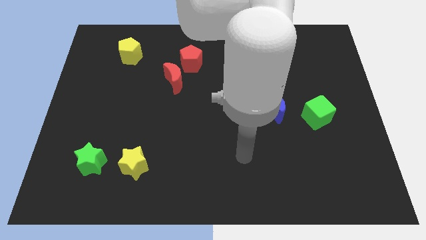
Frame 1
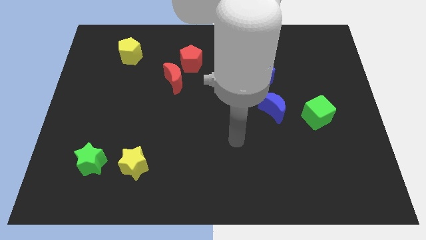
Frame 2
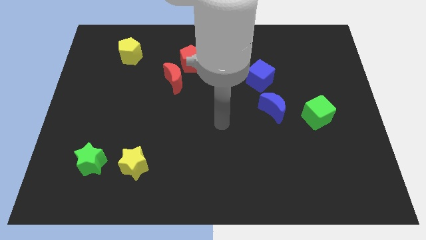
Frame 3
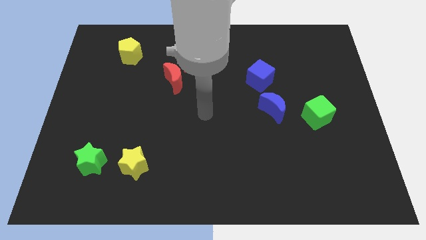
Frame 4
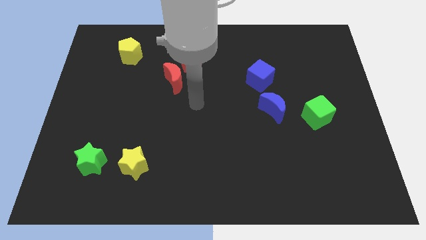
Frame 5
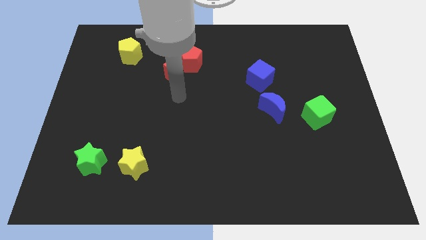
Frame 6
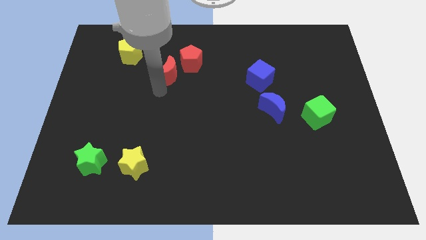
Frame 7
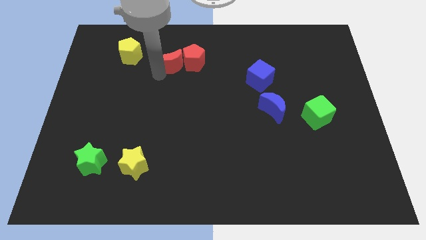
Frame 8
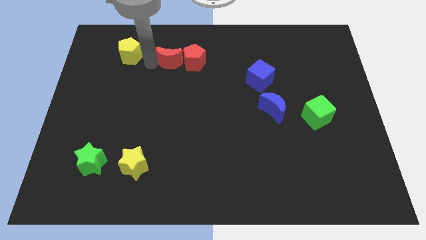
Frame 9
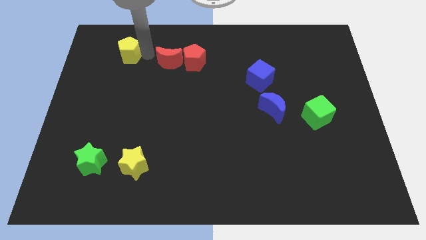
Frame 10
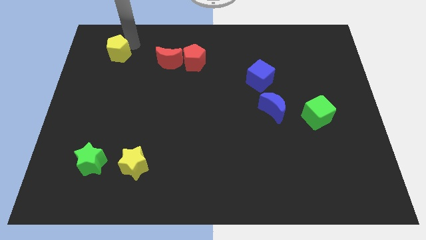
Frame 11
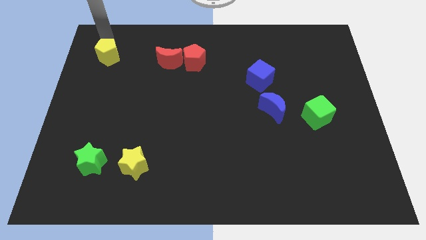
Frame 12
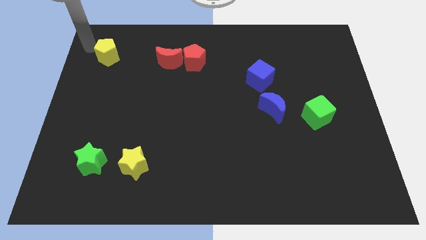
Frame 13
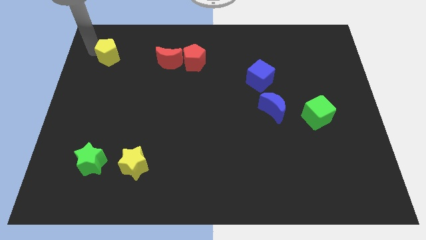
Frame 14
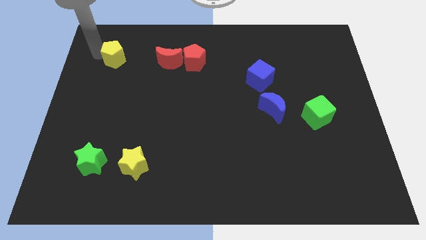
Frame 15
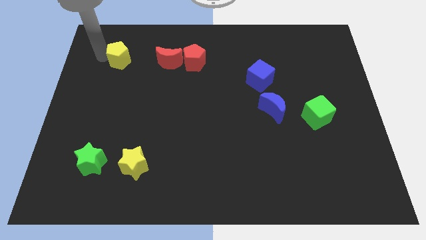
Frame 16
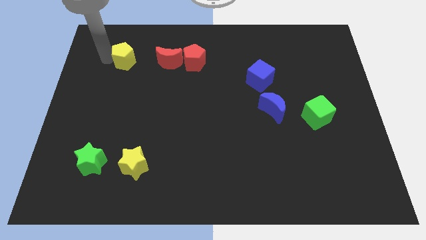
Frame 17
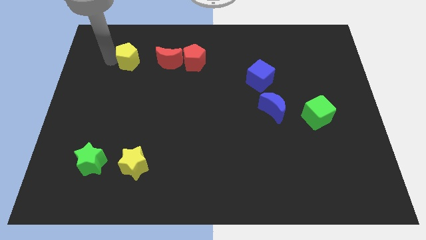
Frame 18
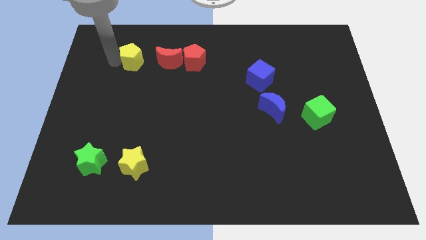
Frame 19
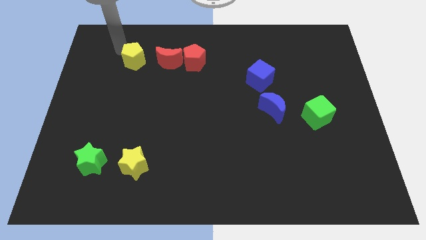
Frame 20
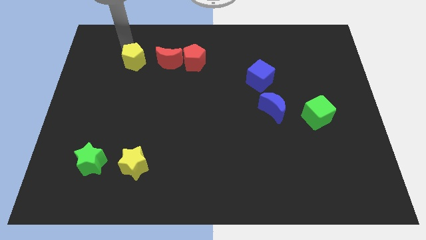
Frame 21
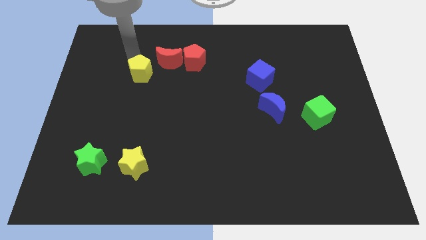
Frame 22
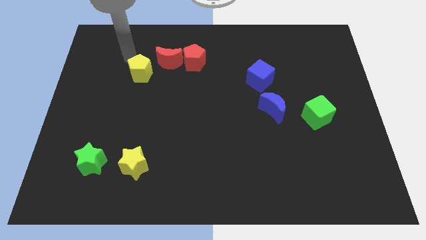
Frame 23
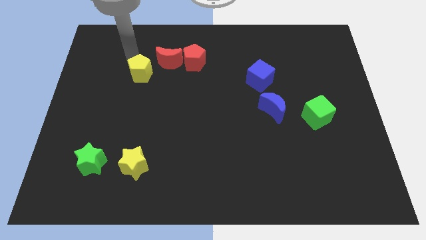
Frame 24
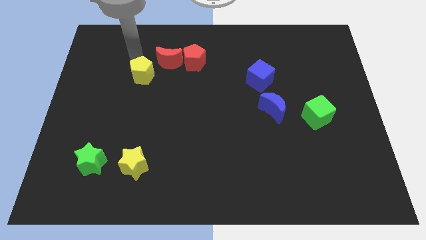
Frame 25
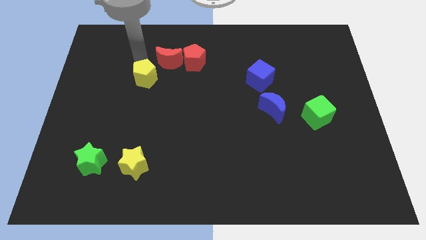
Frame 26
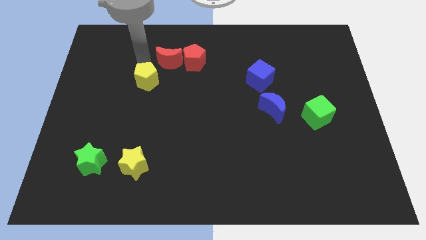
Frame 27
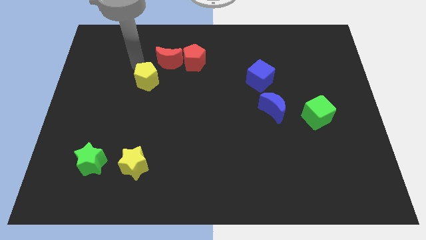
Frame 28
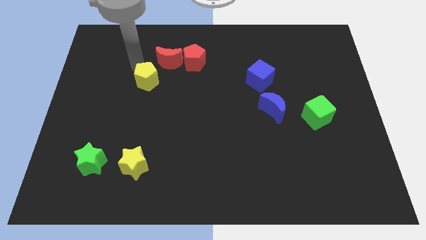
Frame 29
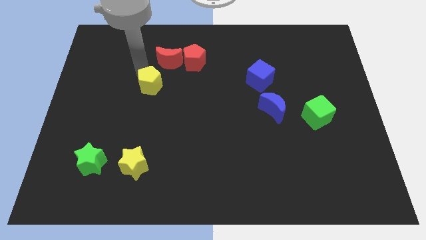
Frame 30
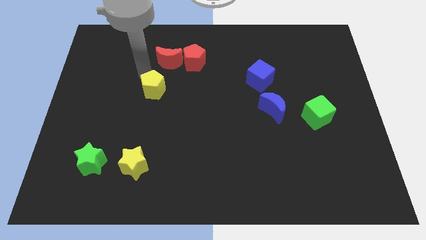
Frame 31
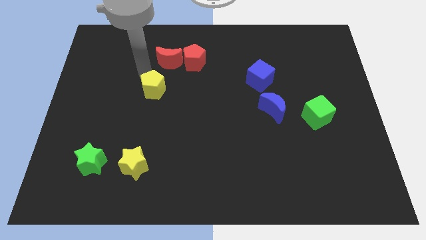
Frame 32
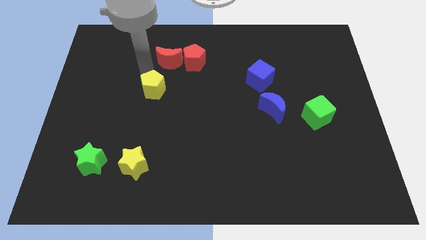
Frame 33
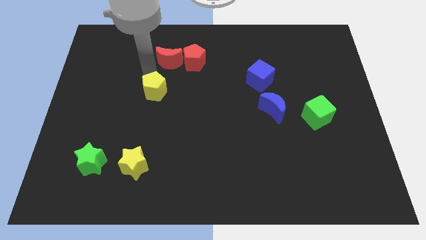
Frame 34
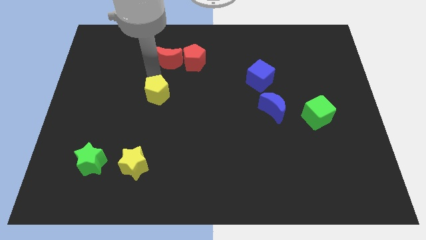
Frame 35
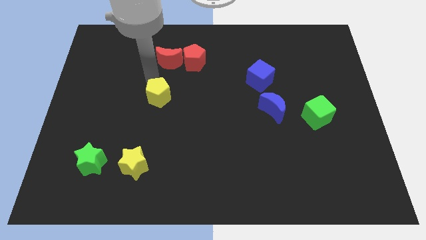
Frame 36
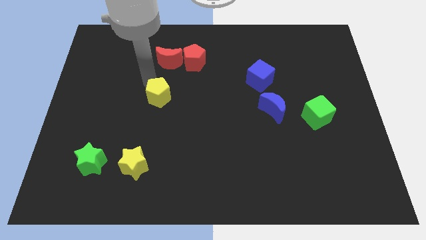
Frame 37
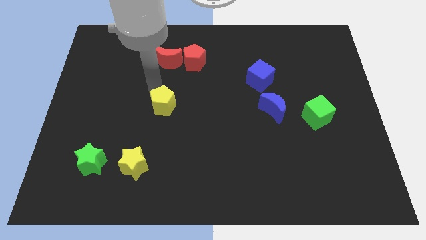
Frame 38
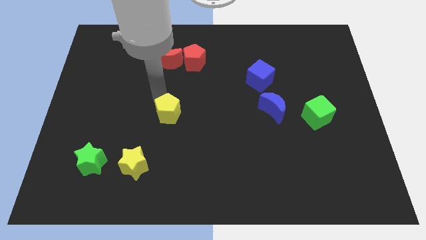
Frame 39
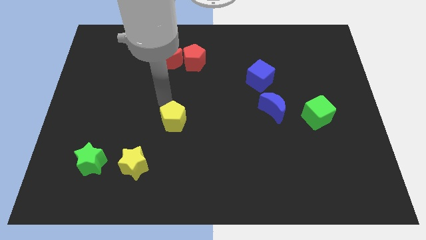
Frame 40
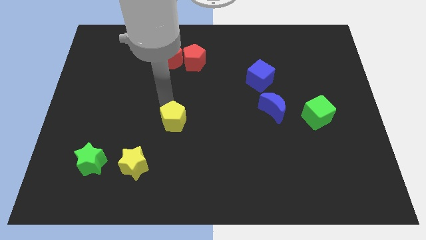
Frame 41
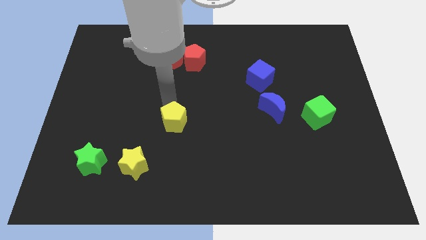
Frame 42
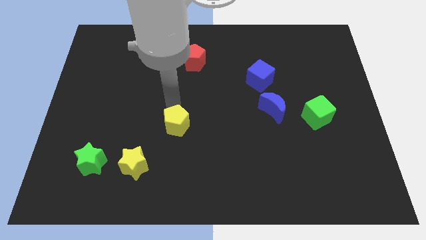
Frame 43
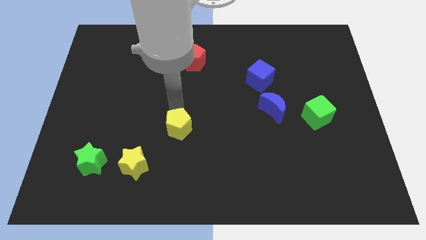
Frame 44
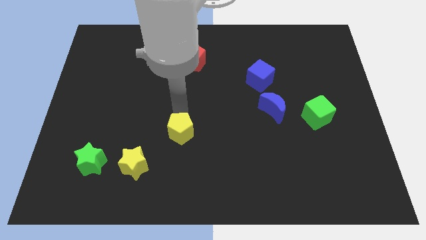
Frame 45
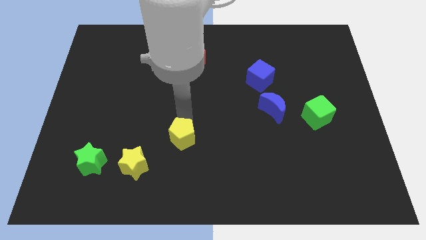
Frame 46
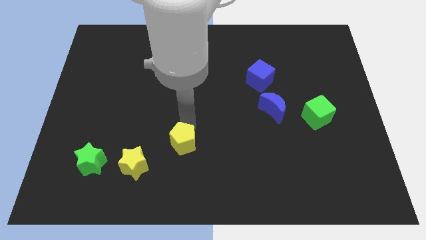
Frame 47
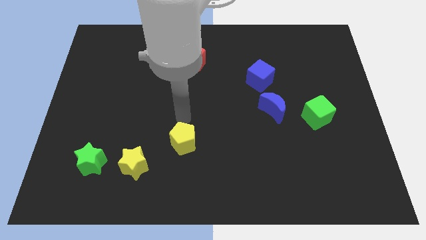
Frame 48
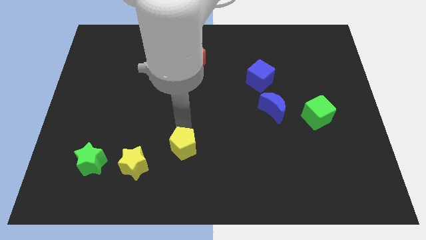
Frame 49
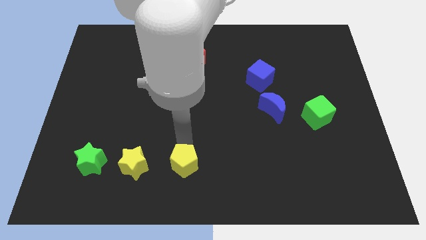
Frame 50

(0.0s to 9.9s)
move the yellow pentagon to the bottom side

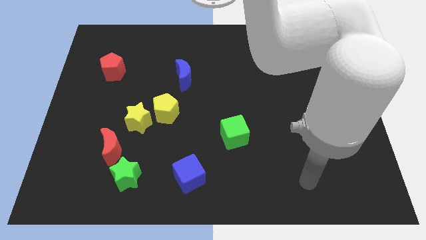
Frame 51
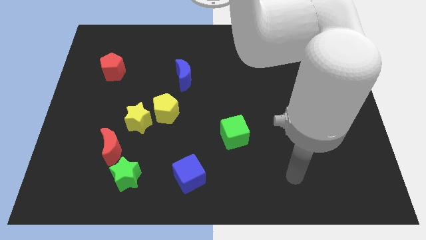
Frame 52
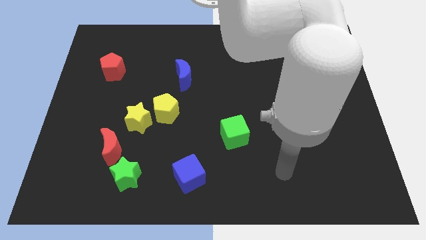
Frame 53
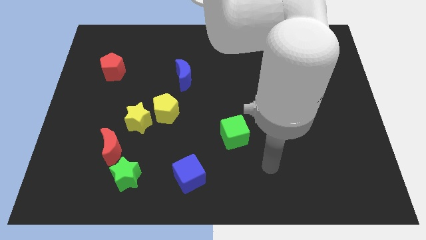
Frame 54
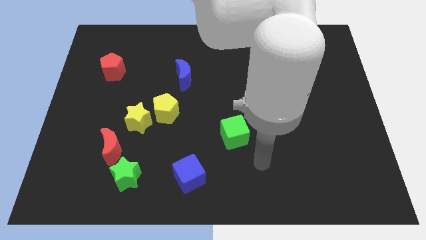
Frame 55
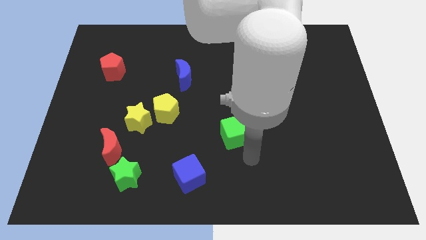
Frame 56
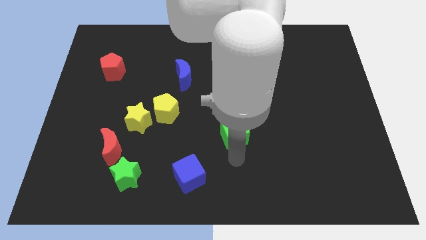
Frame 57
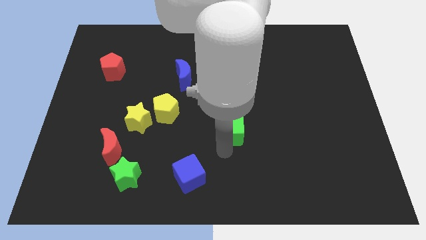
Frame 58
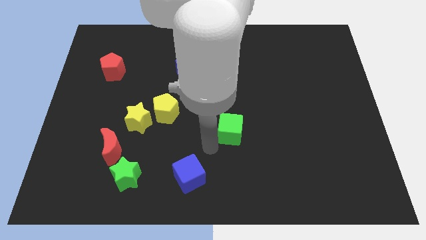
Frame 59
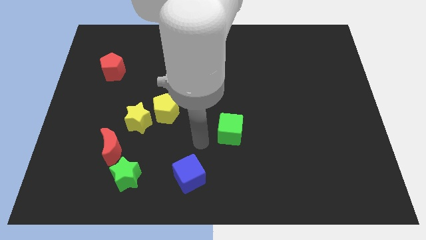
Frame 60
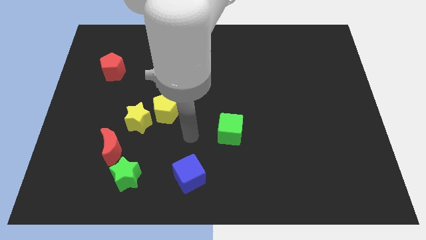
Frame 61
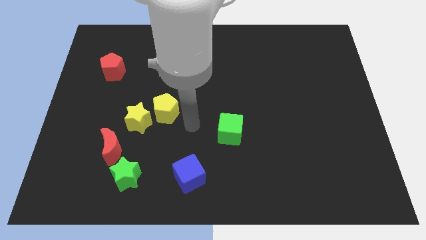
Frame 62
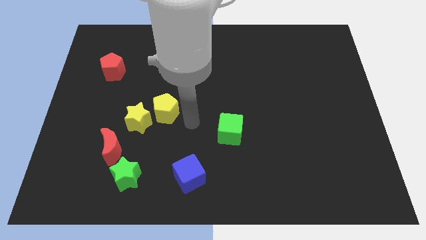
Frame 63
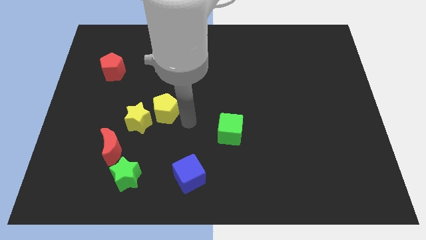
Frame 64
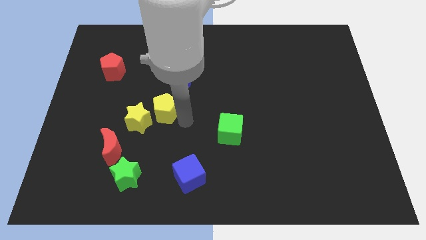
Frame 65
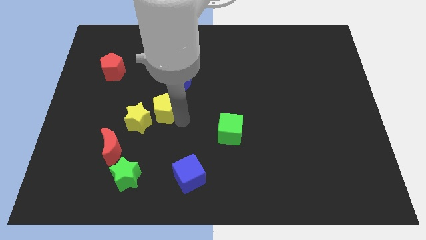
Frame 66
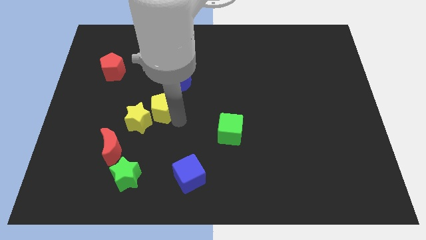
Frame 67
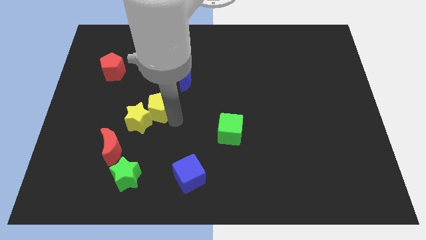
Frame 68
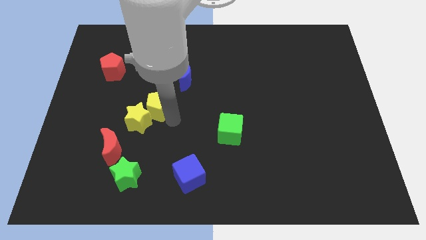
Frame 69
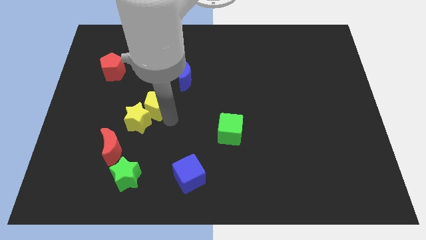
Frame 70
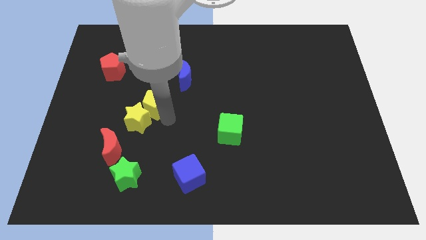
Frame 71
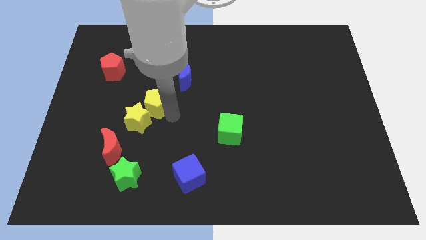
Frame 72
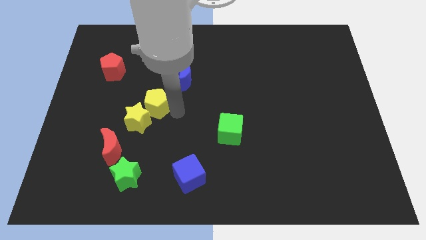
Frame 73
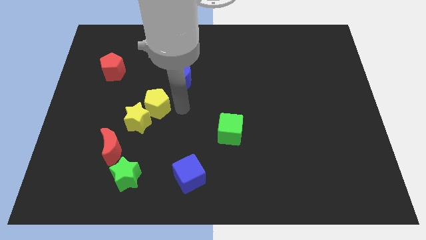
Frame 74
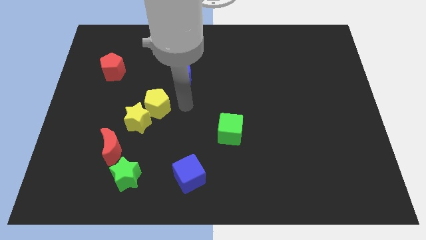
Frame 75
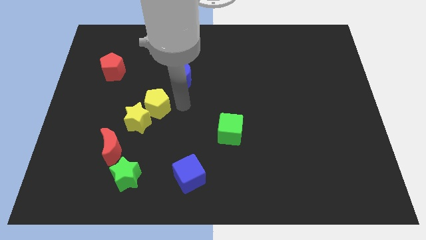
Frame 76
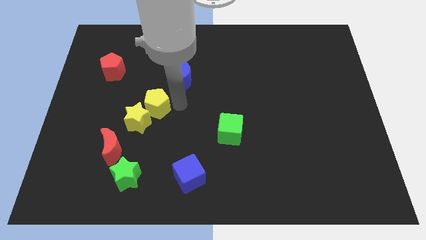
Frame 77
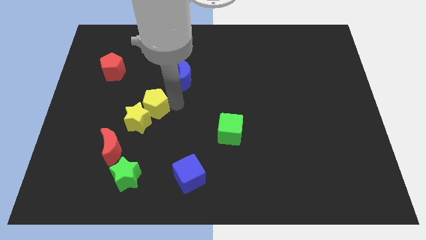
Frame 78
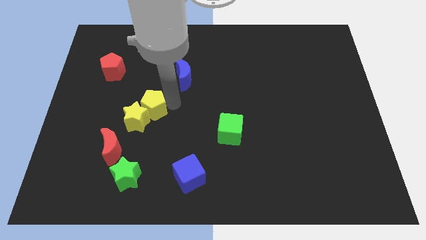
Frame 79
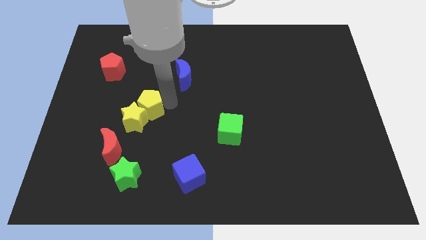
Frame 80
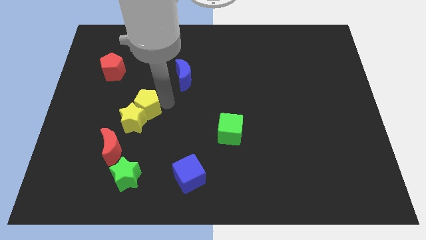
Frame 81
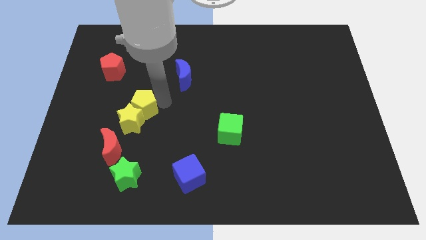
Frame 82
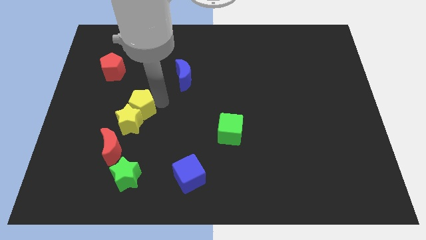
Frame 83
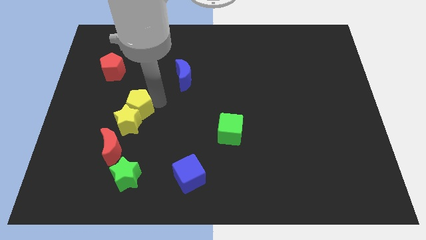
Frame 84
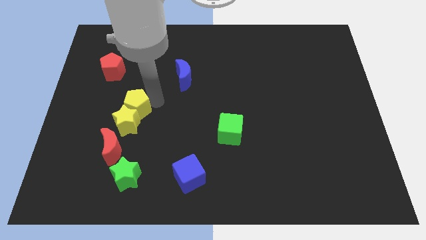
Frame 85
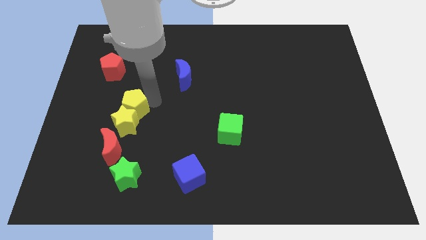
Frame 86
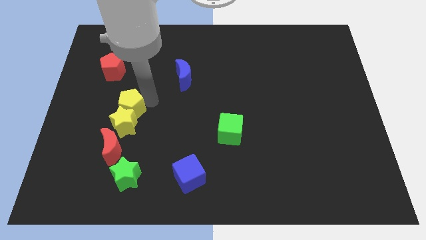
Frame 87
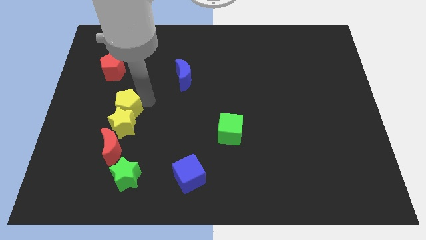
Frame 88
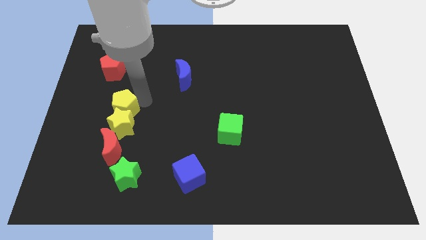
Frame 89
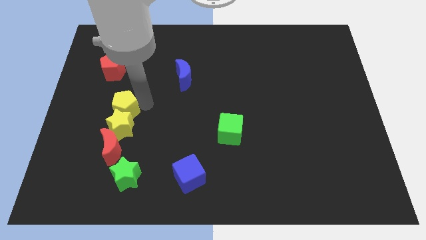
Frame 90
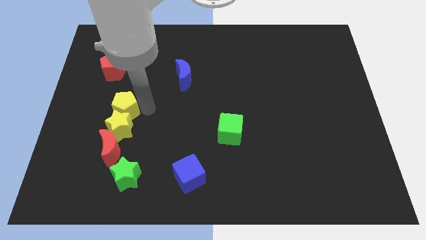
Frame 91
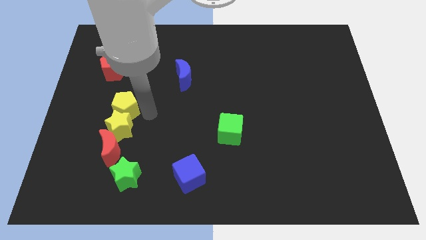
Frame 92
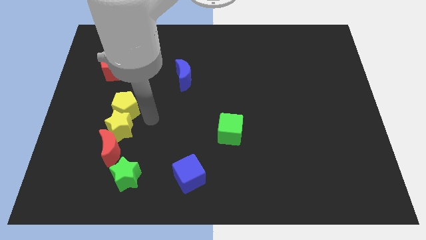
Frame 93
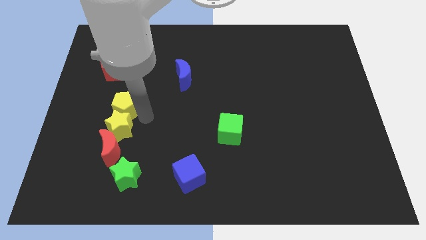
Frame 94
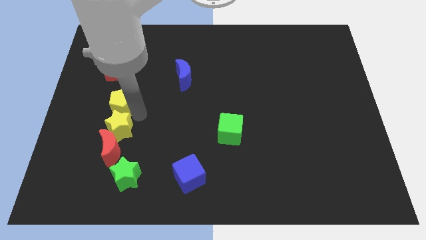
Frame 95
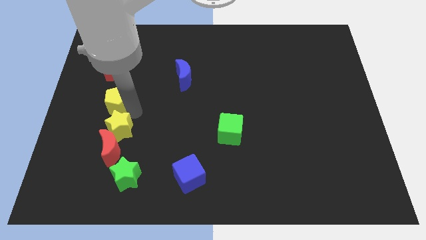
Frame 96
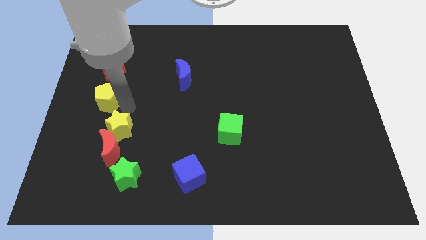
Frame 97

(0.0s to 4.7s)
push the yellow pentagon to the center left
